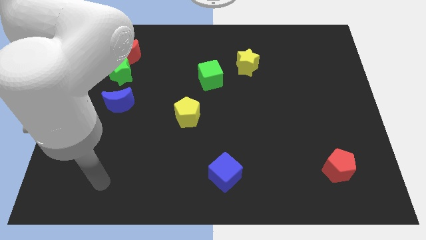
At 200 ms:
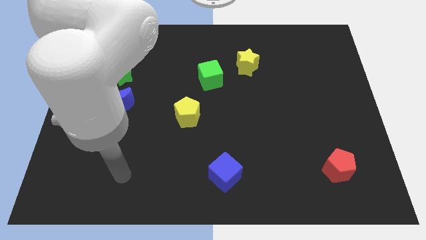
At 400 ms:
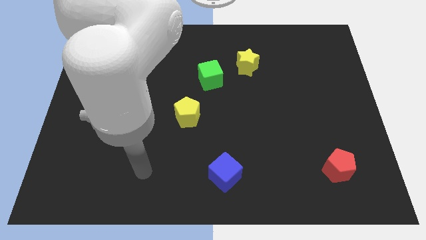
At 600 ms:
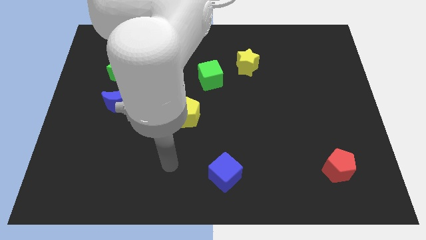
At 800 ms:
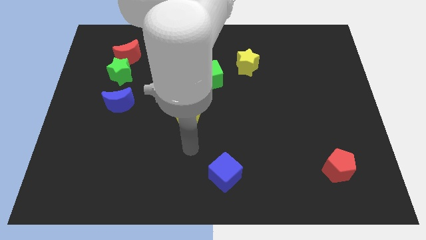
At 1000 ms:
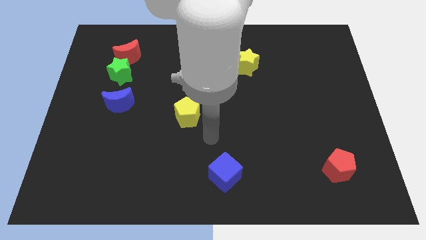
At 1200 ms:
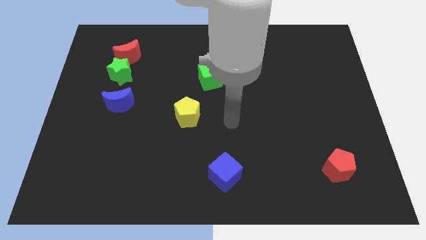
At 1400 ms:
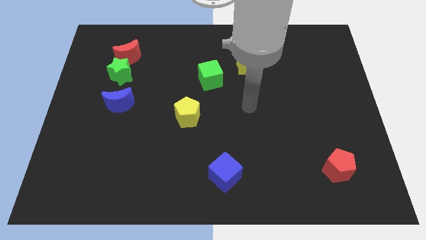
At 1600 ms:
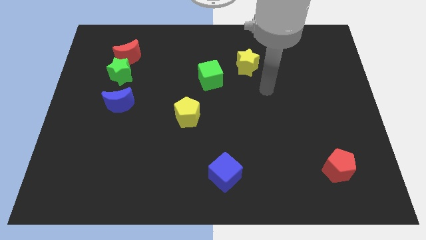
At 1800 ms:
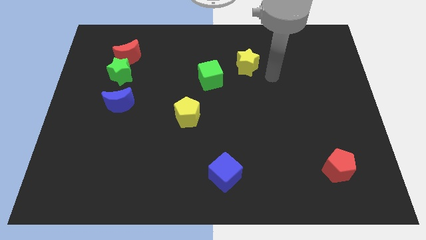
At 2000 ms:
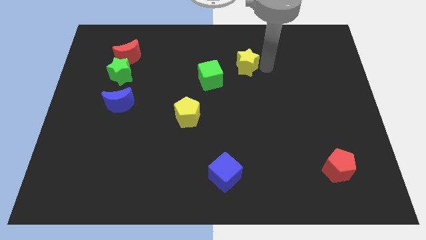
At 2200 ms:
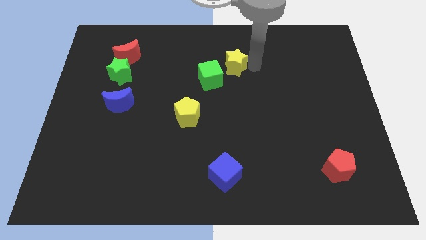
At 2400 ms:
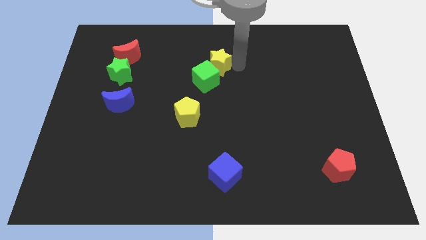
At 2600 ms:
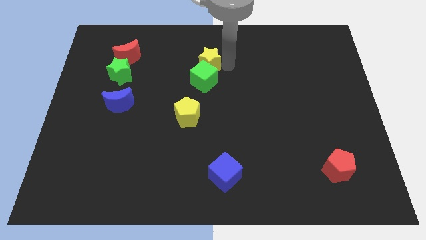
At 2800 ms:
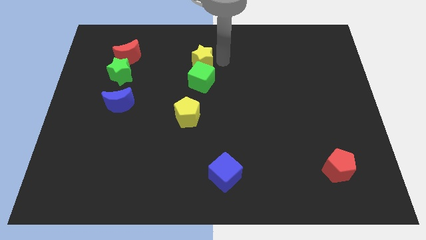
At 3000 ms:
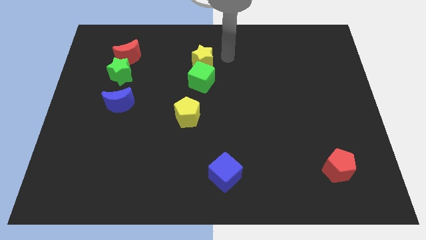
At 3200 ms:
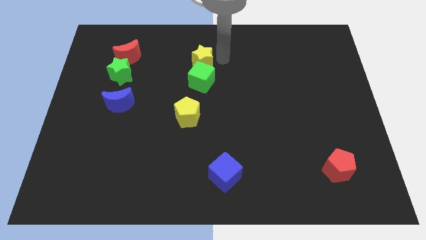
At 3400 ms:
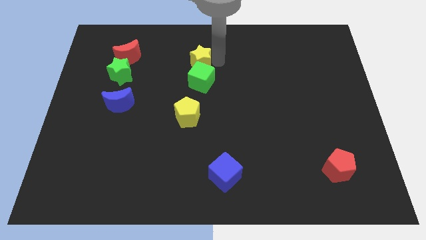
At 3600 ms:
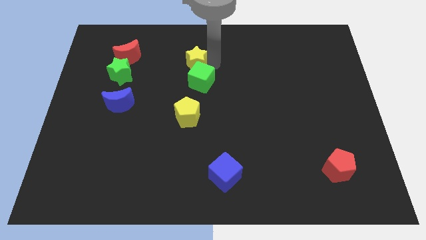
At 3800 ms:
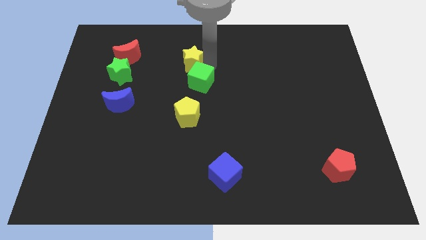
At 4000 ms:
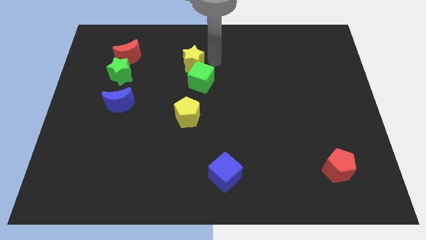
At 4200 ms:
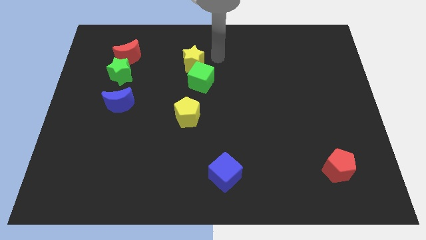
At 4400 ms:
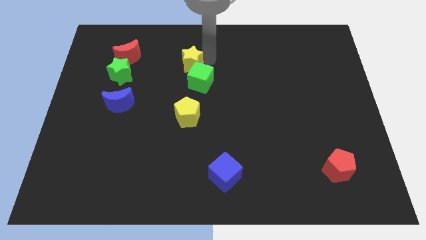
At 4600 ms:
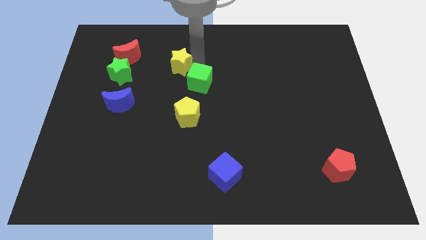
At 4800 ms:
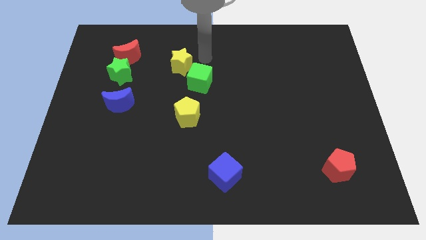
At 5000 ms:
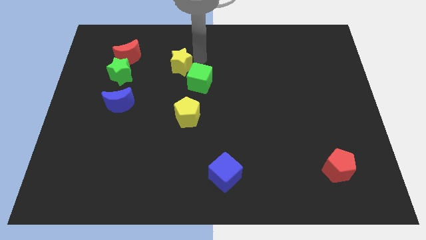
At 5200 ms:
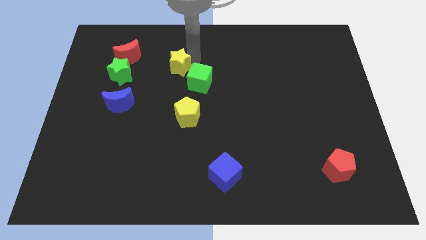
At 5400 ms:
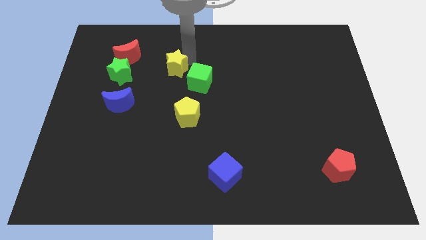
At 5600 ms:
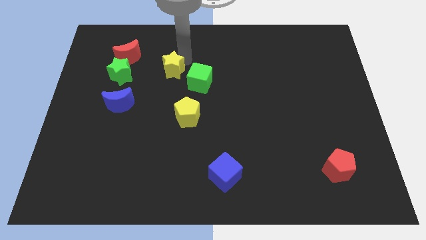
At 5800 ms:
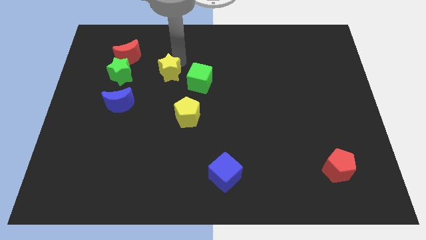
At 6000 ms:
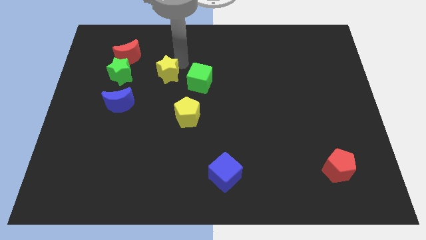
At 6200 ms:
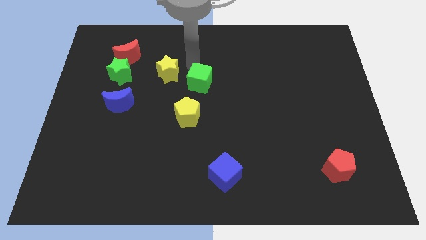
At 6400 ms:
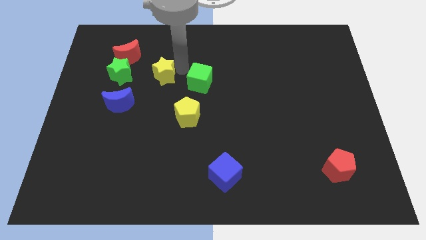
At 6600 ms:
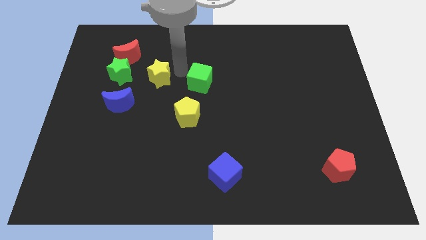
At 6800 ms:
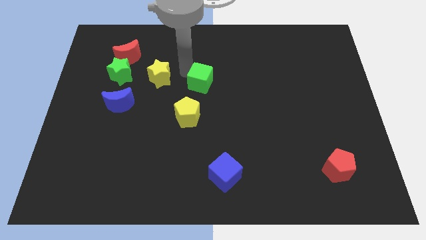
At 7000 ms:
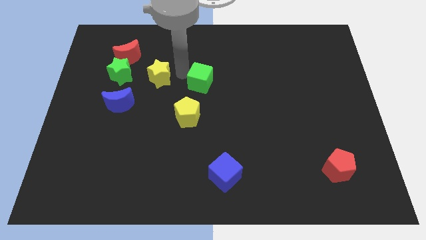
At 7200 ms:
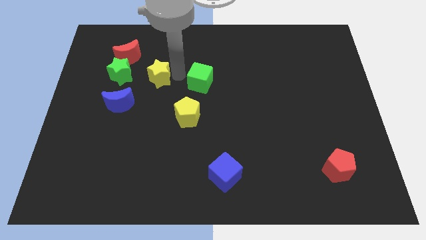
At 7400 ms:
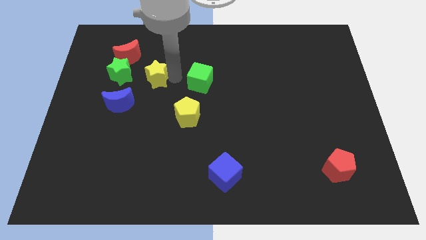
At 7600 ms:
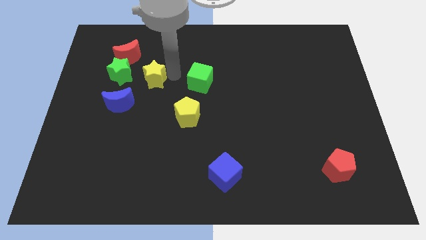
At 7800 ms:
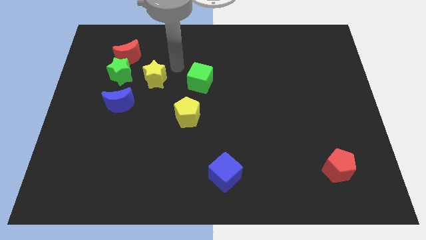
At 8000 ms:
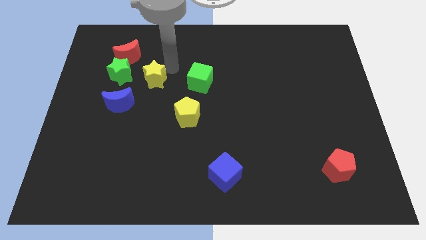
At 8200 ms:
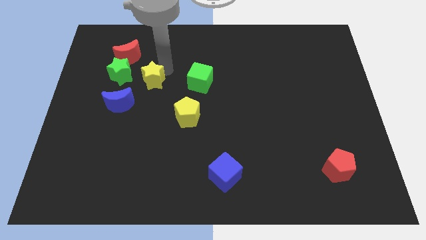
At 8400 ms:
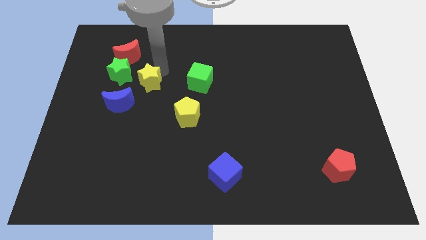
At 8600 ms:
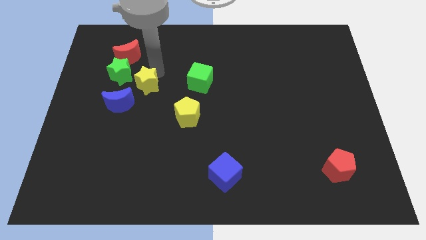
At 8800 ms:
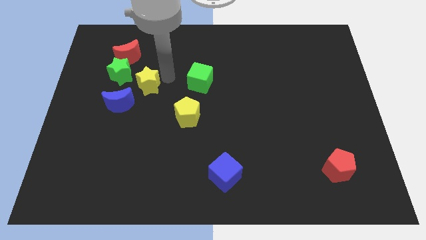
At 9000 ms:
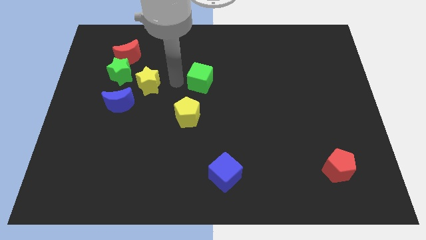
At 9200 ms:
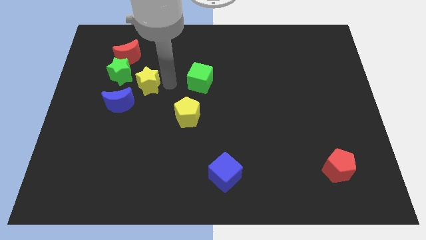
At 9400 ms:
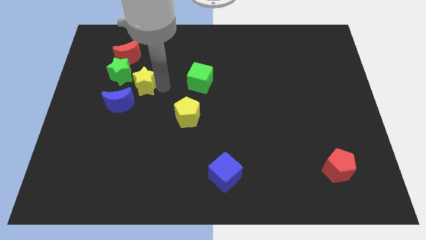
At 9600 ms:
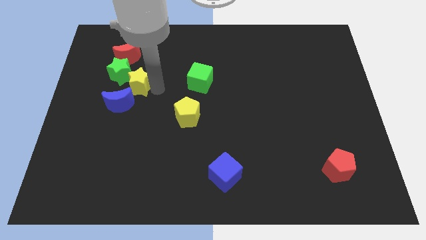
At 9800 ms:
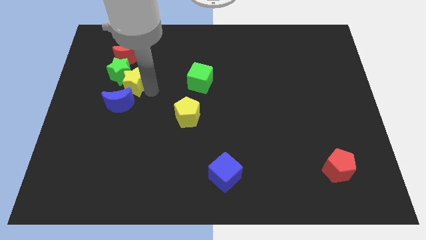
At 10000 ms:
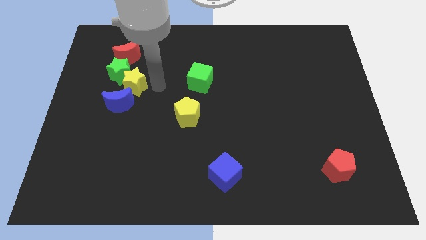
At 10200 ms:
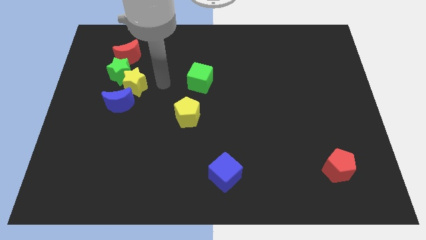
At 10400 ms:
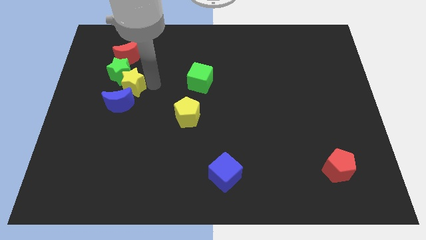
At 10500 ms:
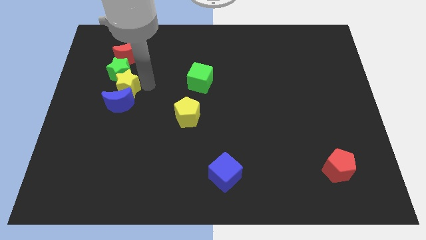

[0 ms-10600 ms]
put the yellow star to the top left side of the blue moon

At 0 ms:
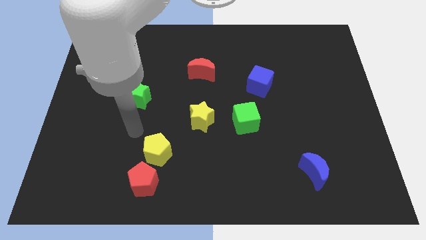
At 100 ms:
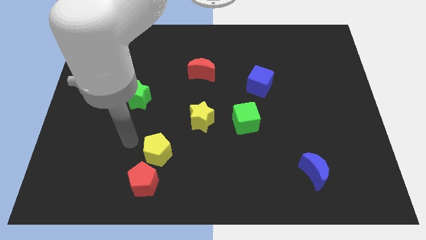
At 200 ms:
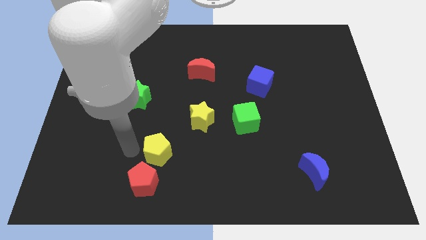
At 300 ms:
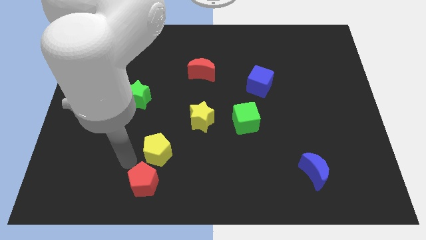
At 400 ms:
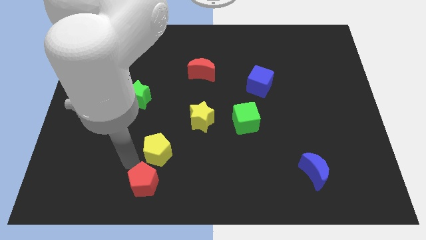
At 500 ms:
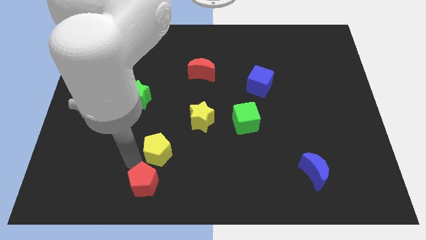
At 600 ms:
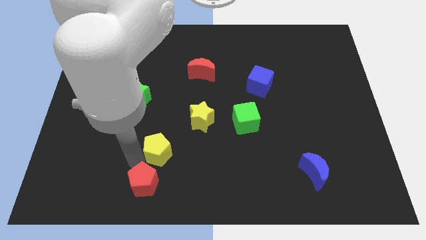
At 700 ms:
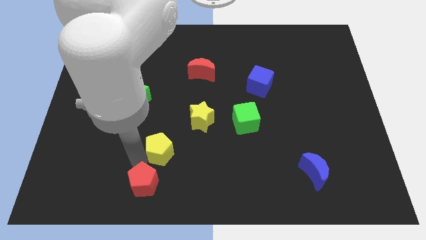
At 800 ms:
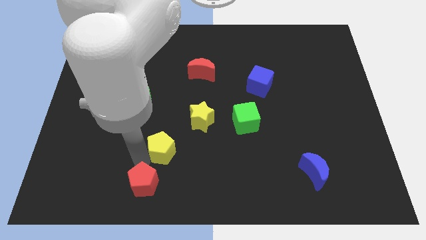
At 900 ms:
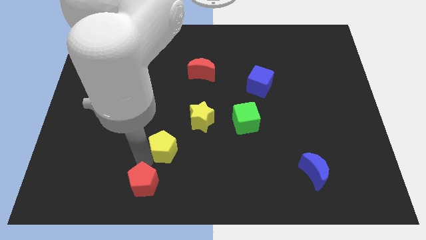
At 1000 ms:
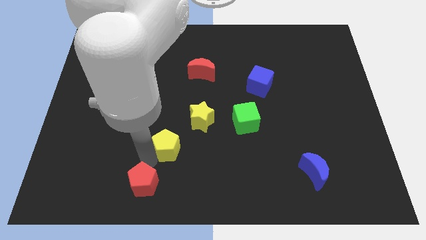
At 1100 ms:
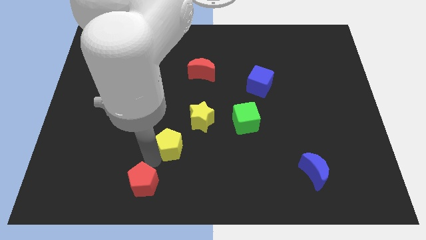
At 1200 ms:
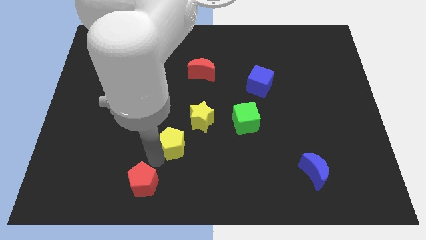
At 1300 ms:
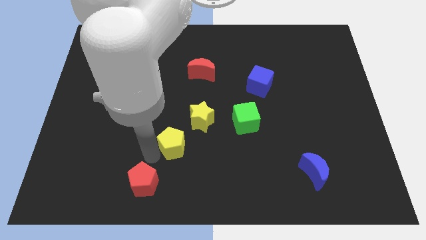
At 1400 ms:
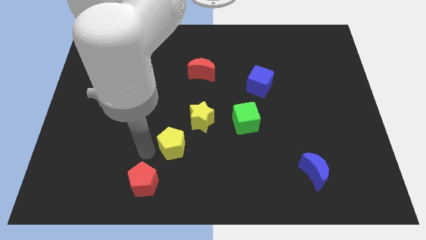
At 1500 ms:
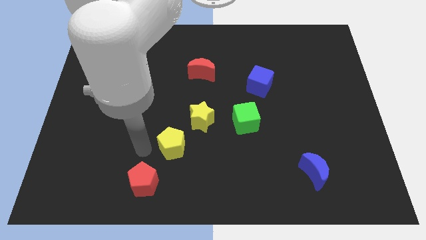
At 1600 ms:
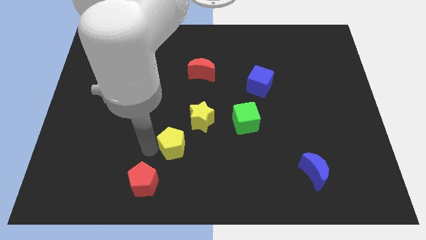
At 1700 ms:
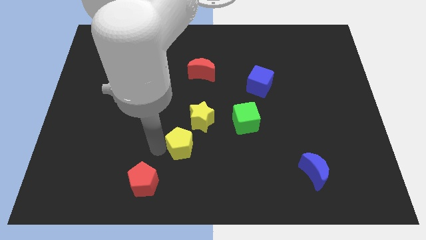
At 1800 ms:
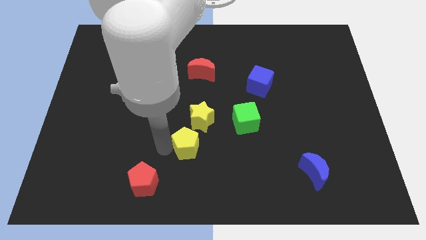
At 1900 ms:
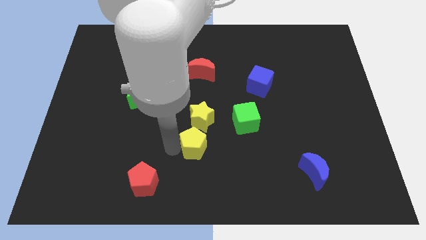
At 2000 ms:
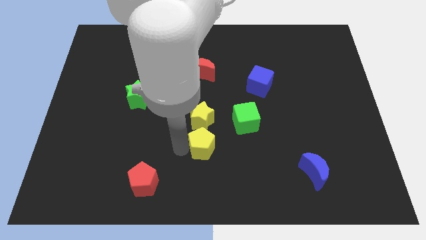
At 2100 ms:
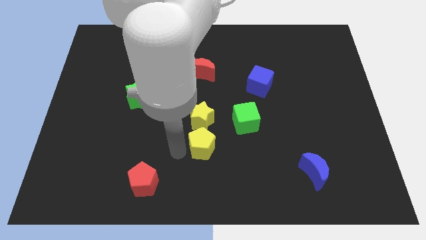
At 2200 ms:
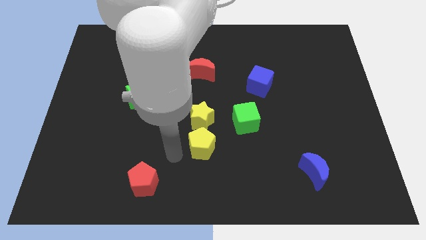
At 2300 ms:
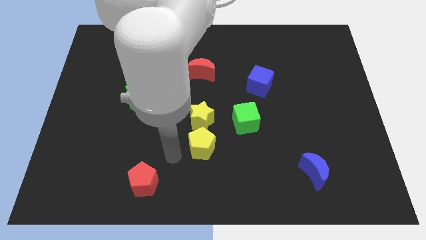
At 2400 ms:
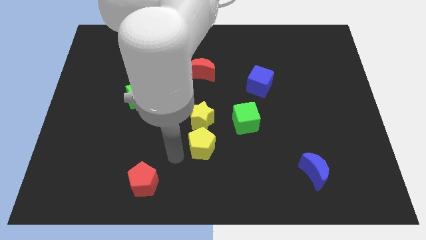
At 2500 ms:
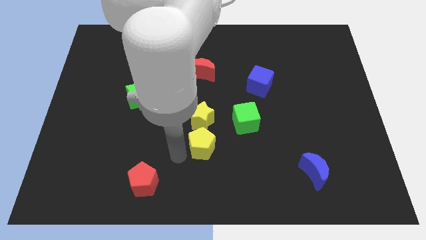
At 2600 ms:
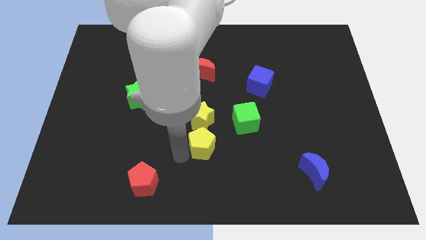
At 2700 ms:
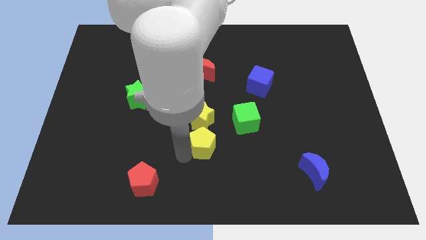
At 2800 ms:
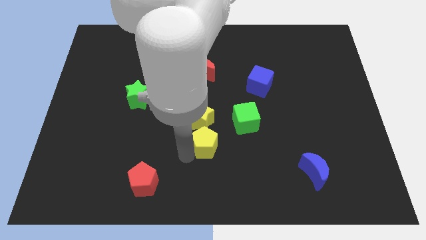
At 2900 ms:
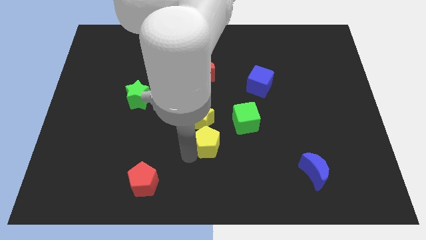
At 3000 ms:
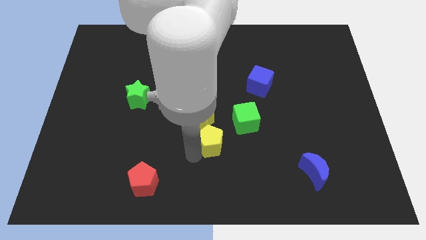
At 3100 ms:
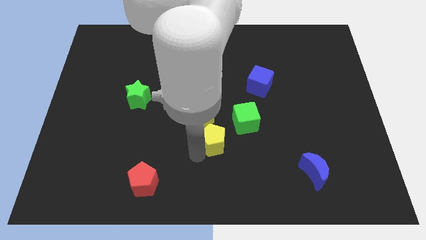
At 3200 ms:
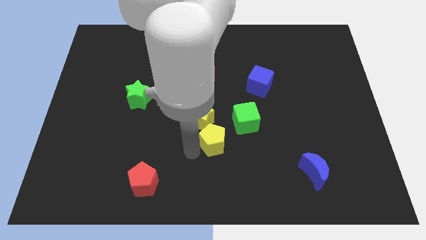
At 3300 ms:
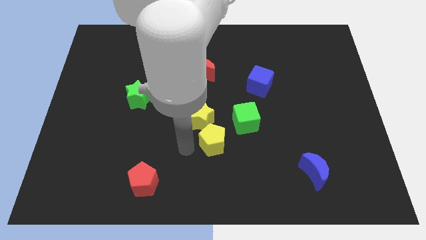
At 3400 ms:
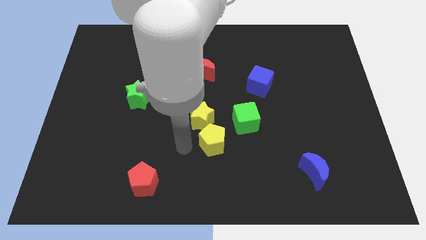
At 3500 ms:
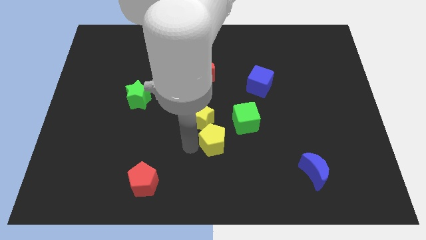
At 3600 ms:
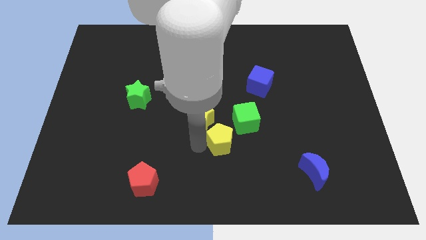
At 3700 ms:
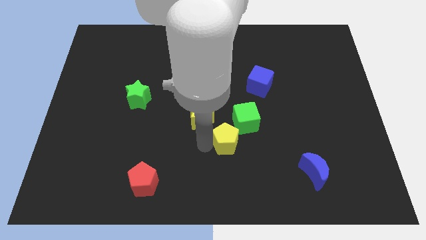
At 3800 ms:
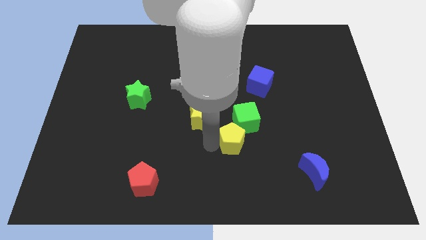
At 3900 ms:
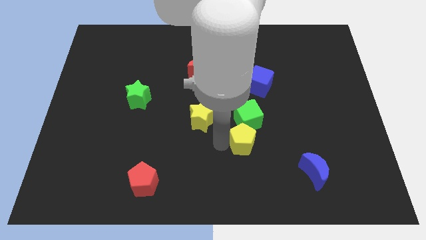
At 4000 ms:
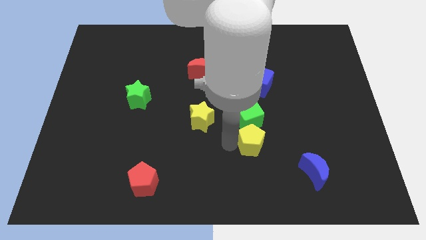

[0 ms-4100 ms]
slide the yellow pentagon diagonally down and to the right of the green cube
